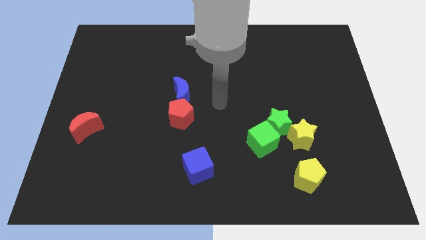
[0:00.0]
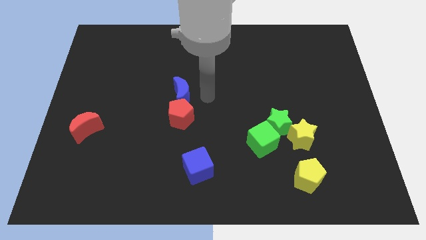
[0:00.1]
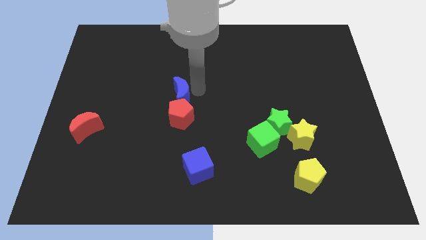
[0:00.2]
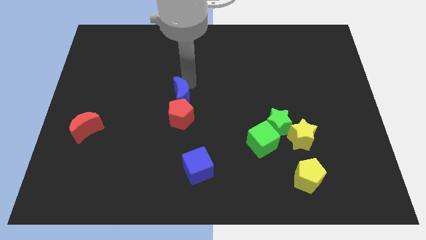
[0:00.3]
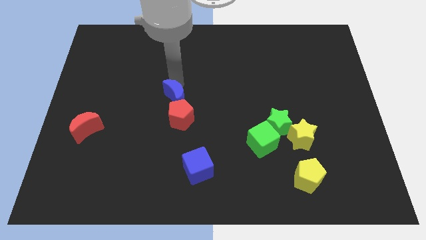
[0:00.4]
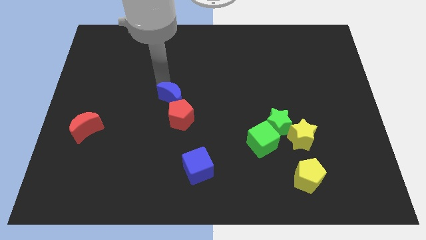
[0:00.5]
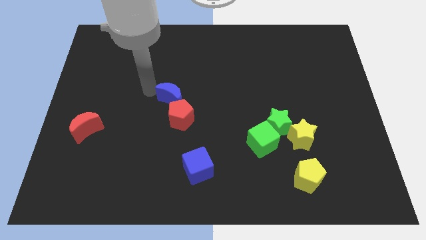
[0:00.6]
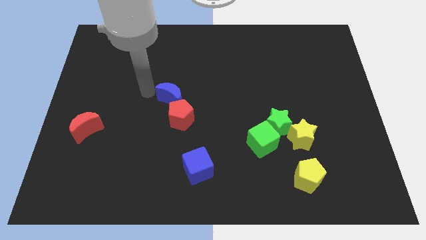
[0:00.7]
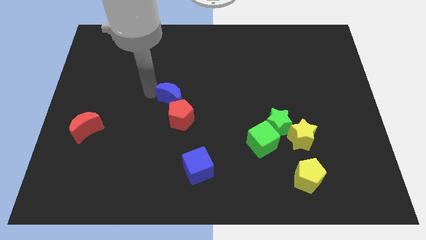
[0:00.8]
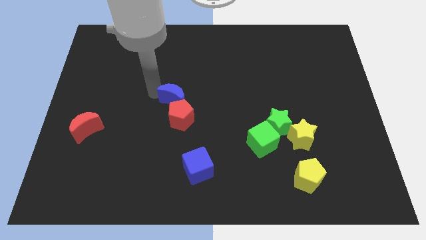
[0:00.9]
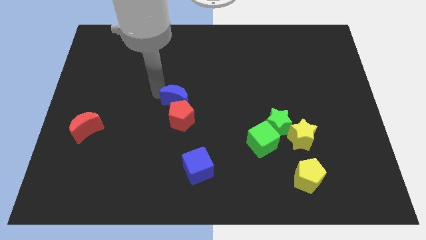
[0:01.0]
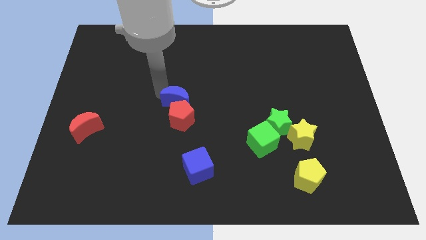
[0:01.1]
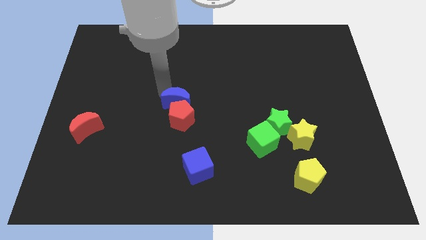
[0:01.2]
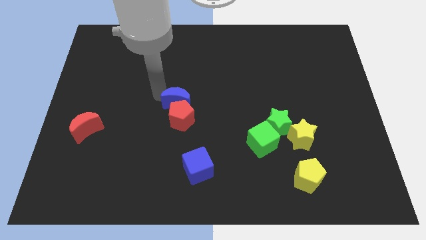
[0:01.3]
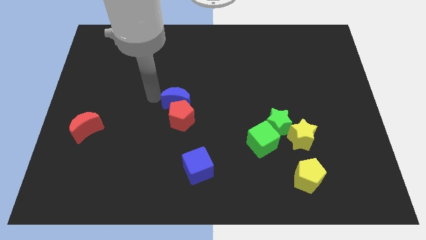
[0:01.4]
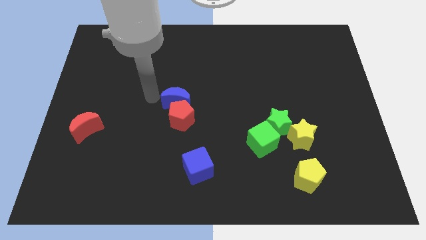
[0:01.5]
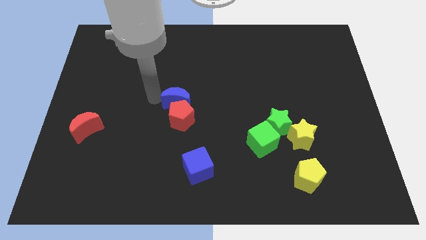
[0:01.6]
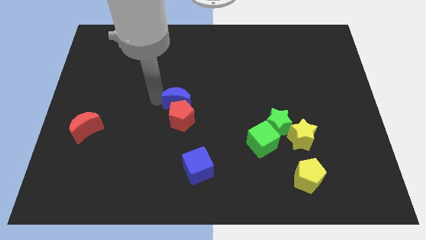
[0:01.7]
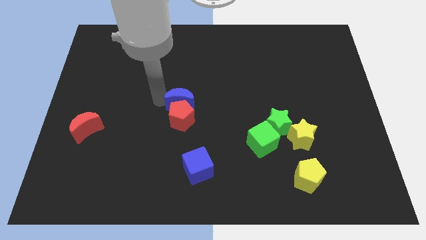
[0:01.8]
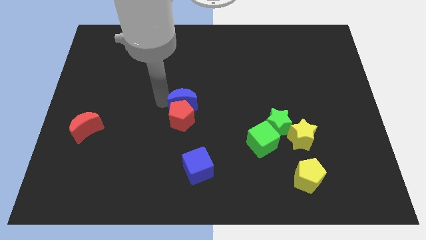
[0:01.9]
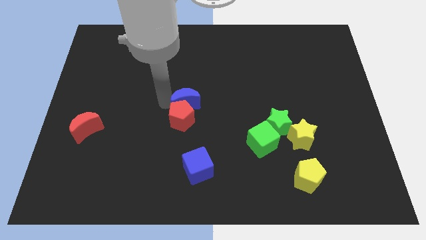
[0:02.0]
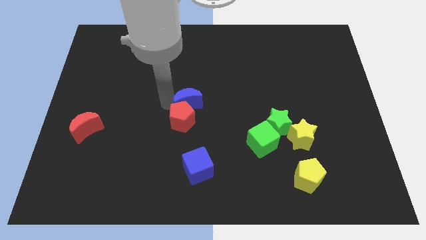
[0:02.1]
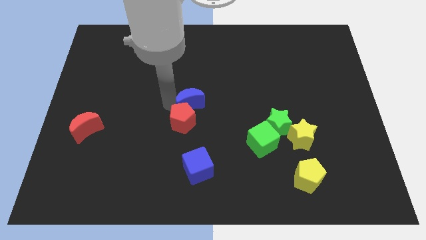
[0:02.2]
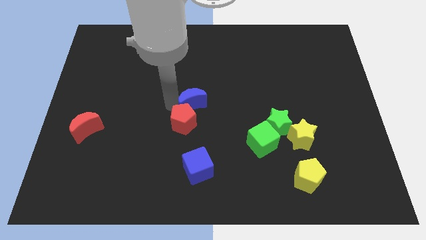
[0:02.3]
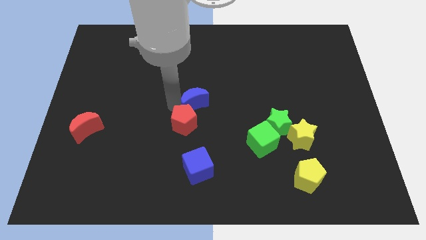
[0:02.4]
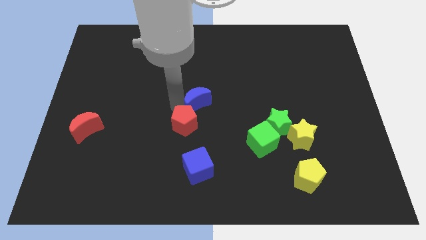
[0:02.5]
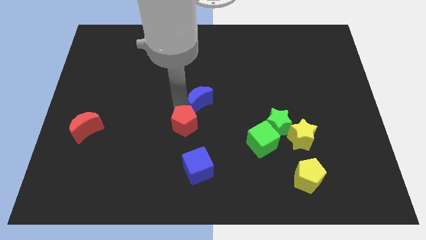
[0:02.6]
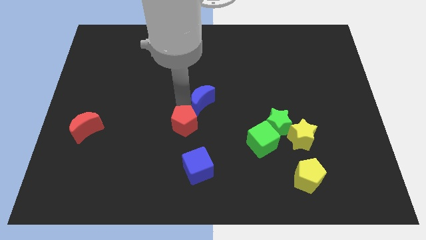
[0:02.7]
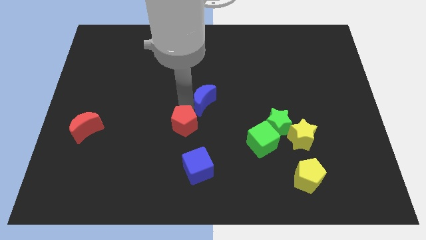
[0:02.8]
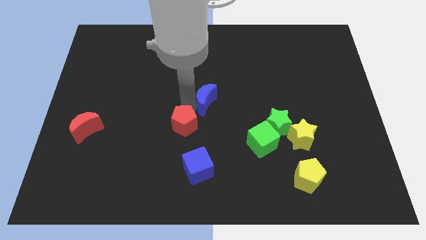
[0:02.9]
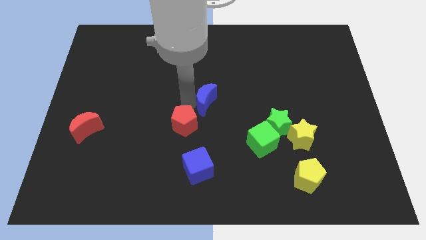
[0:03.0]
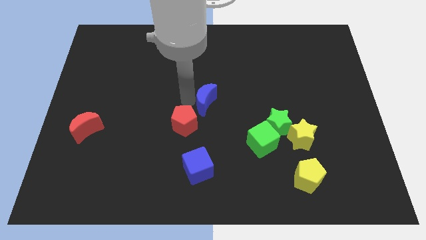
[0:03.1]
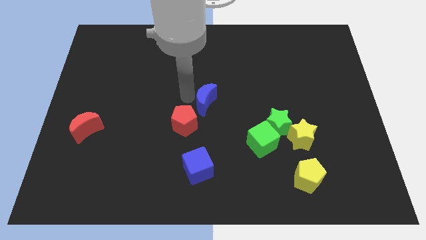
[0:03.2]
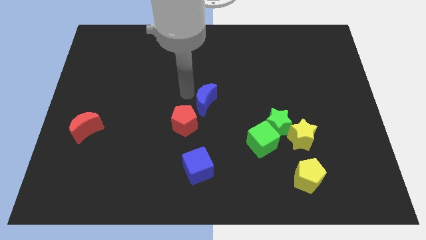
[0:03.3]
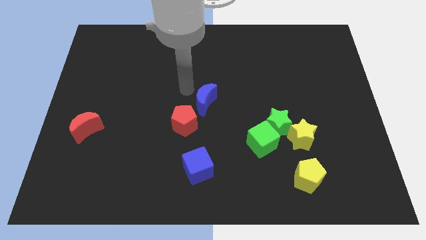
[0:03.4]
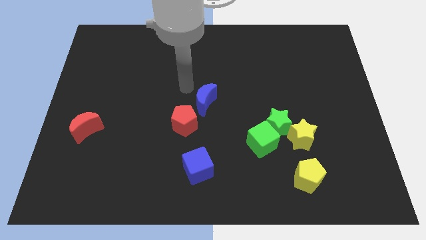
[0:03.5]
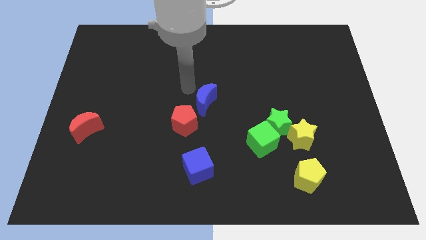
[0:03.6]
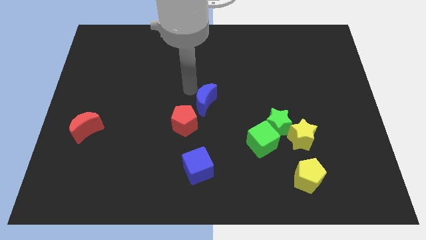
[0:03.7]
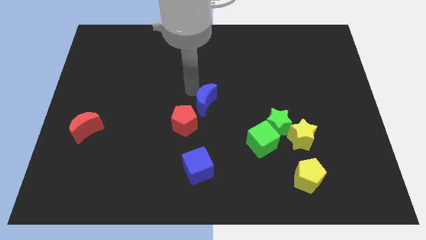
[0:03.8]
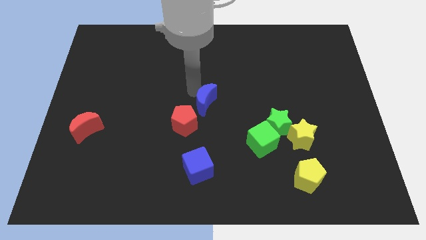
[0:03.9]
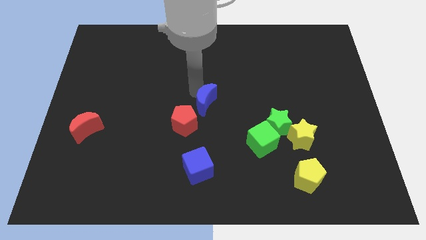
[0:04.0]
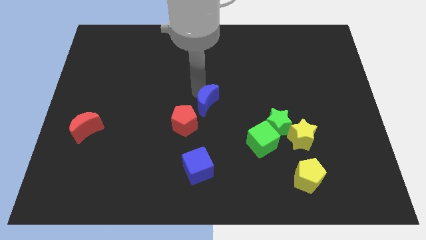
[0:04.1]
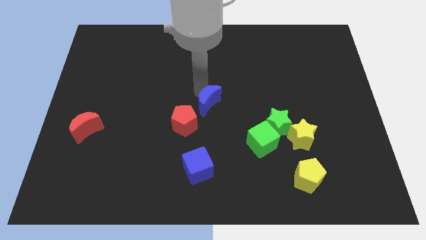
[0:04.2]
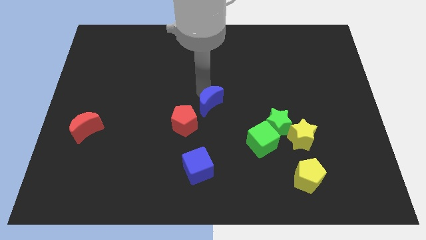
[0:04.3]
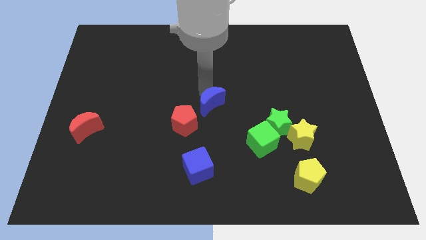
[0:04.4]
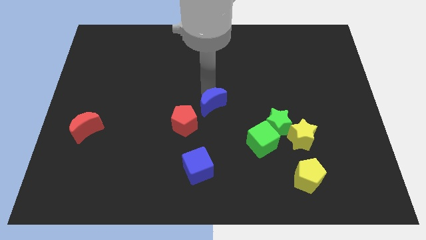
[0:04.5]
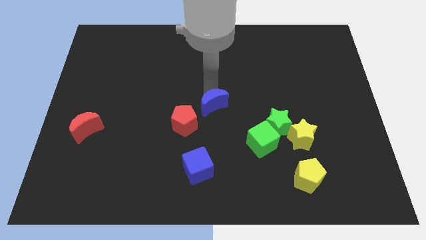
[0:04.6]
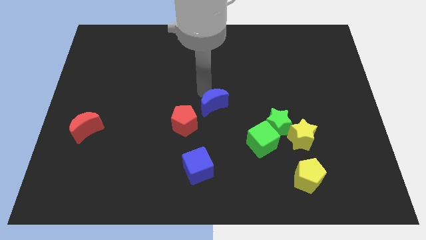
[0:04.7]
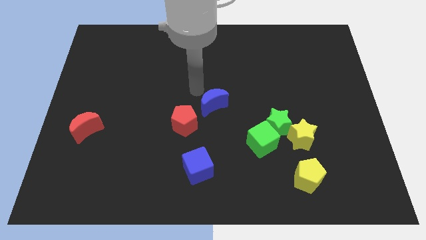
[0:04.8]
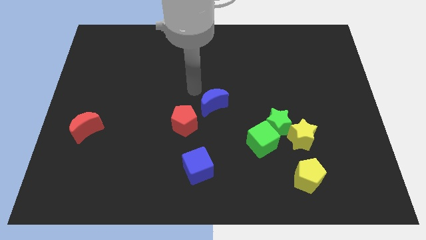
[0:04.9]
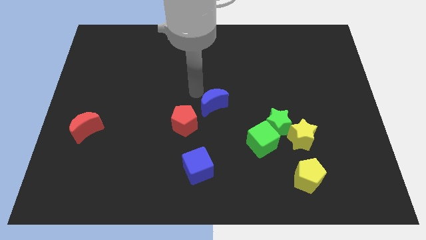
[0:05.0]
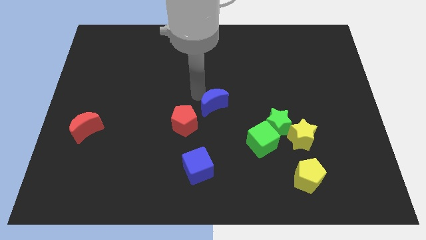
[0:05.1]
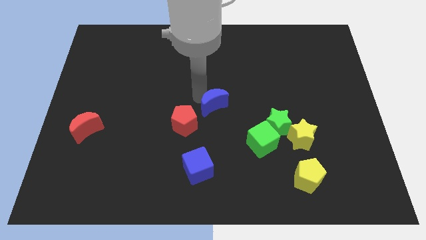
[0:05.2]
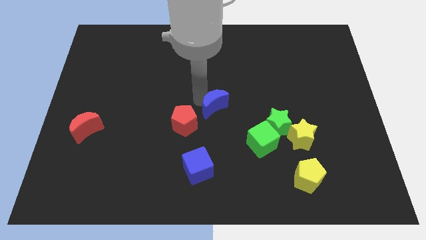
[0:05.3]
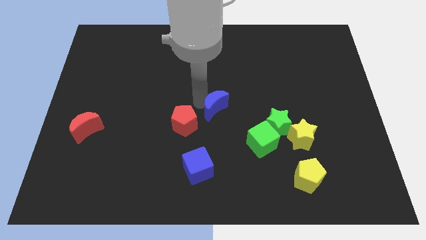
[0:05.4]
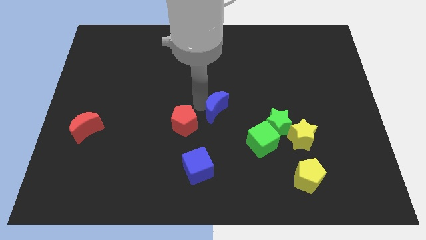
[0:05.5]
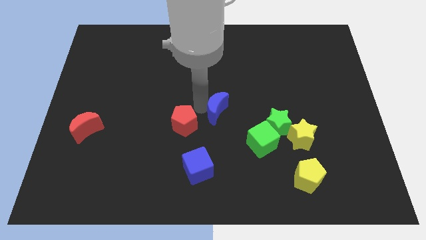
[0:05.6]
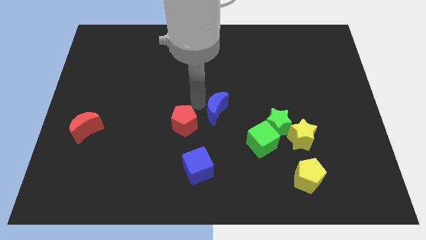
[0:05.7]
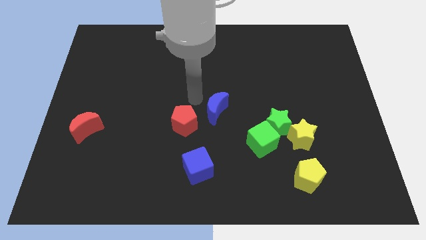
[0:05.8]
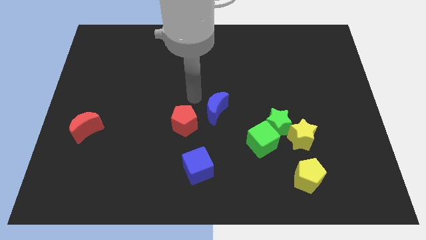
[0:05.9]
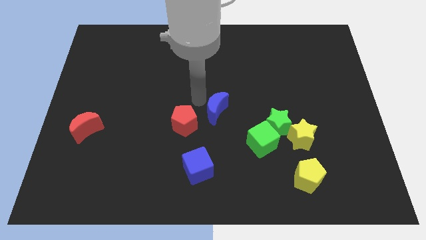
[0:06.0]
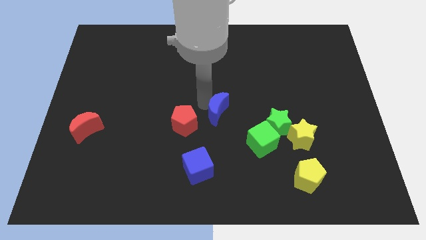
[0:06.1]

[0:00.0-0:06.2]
push the blue moon to the top left of the green cube

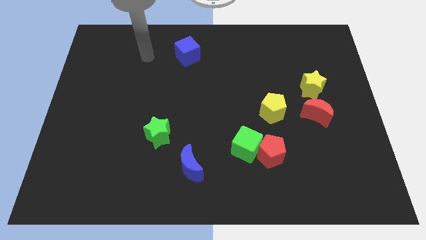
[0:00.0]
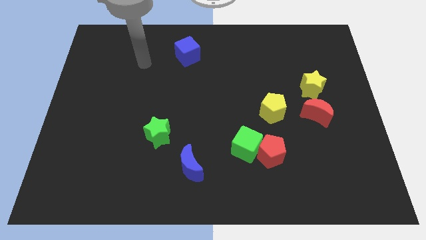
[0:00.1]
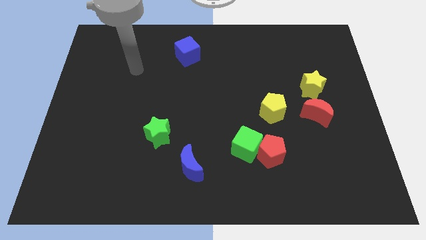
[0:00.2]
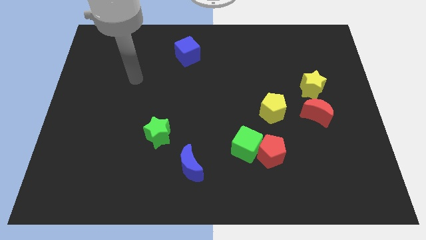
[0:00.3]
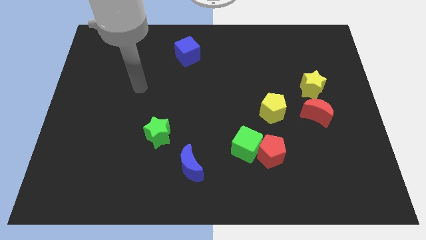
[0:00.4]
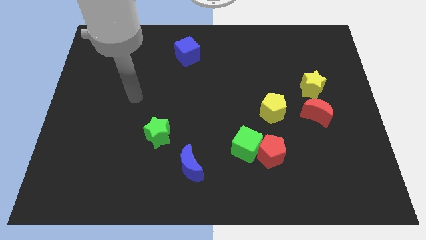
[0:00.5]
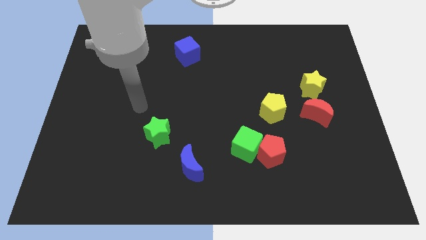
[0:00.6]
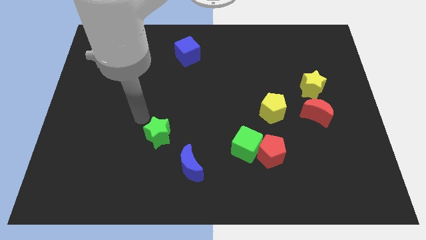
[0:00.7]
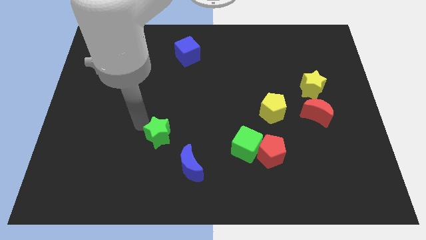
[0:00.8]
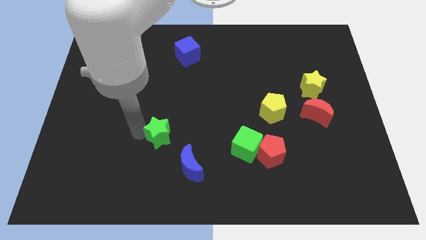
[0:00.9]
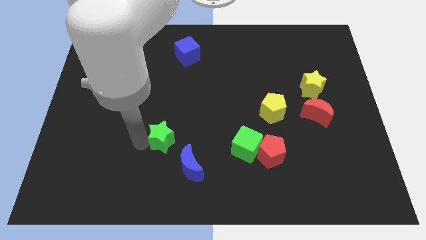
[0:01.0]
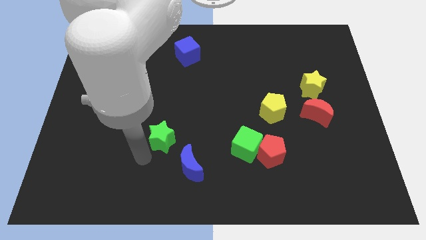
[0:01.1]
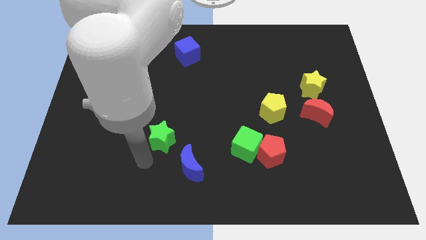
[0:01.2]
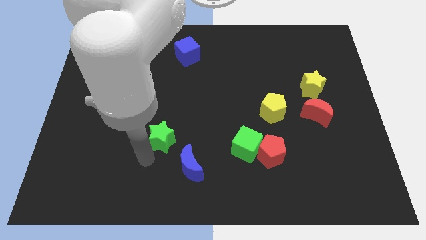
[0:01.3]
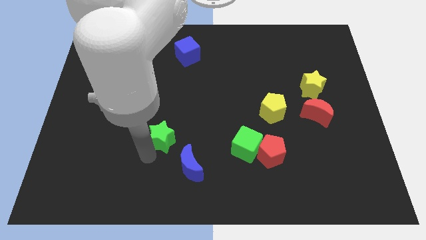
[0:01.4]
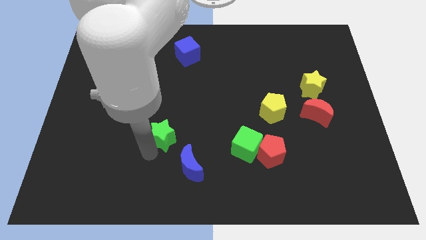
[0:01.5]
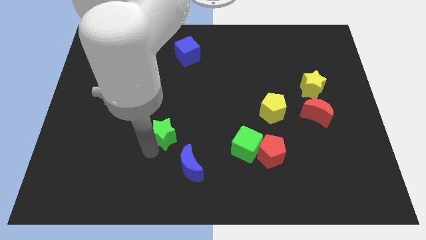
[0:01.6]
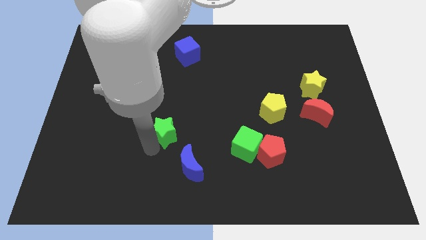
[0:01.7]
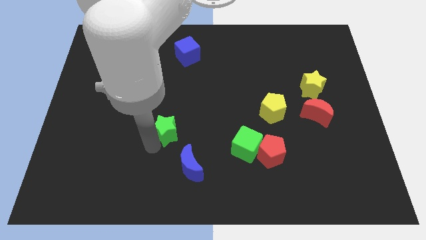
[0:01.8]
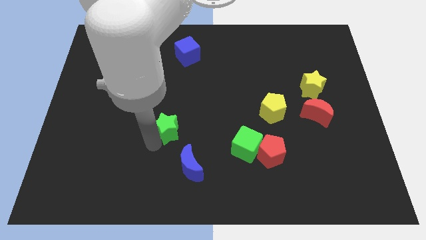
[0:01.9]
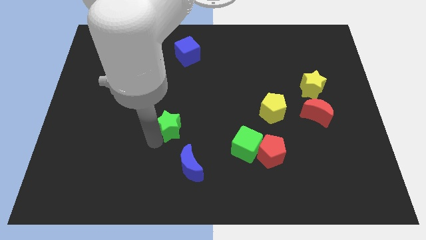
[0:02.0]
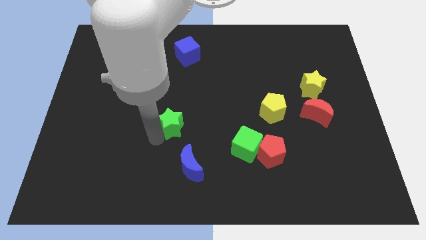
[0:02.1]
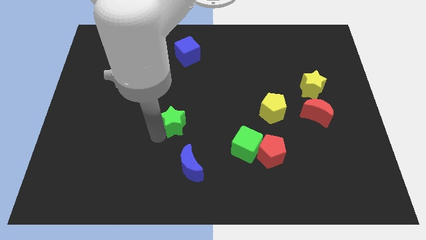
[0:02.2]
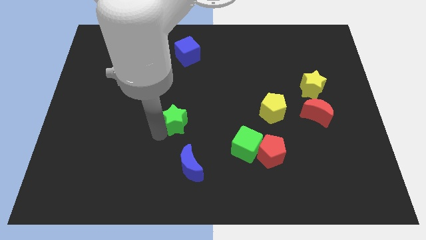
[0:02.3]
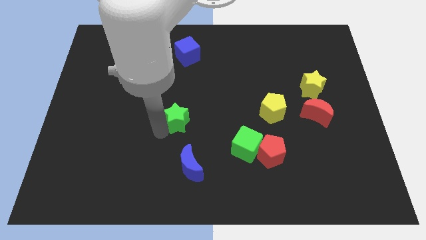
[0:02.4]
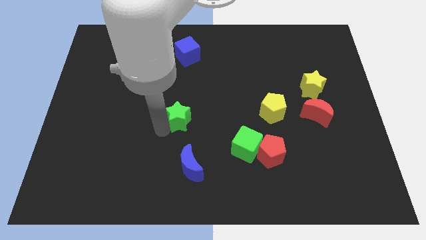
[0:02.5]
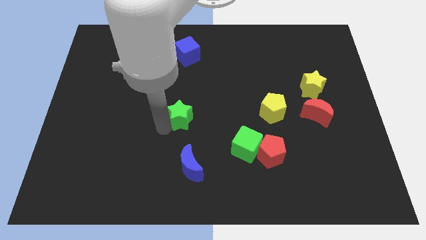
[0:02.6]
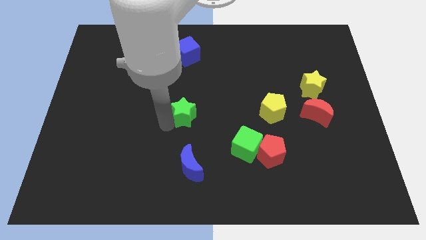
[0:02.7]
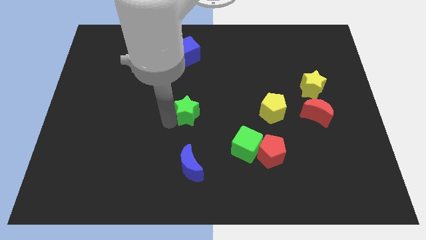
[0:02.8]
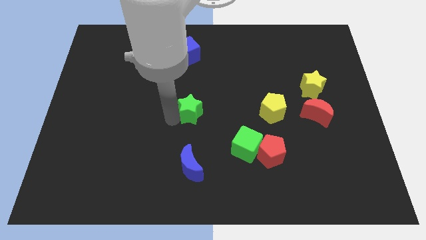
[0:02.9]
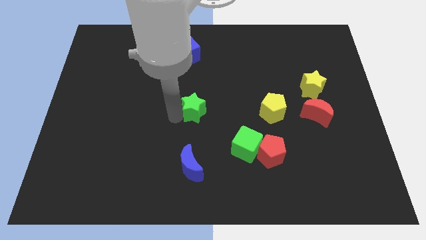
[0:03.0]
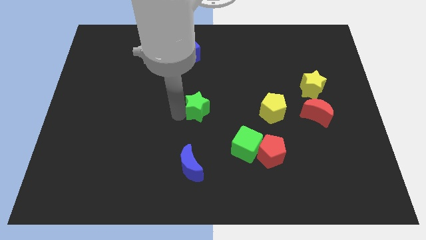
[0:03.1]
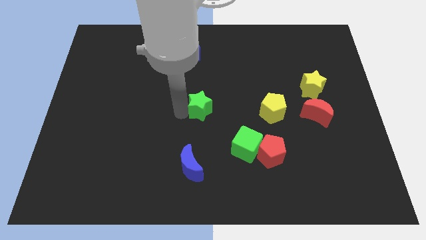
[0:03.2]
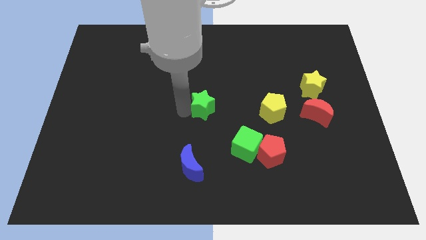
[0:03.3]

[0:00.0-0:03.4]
move the green star left of the yellow pentagon
